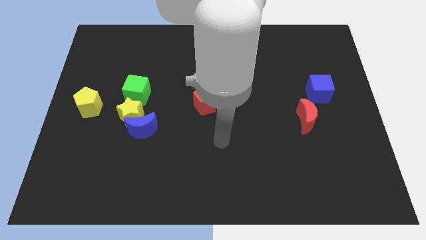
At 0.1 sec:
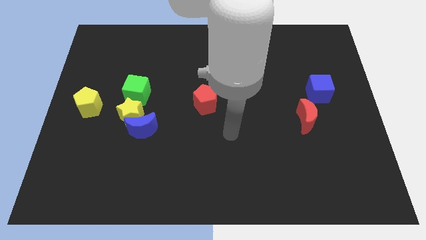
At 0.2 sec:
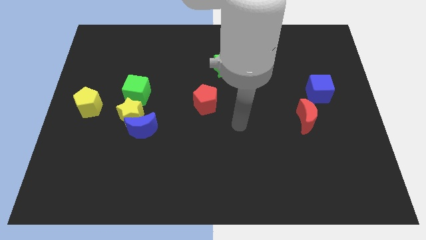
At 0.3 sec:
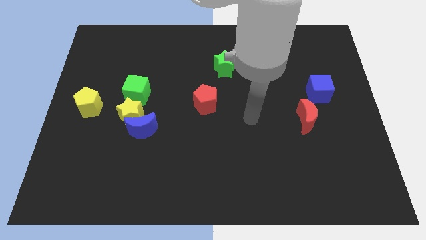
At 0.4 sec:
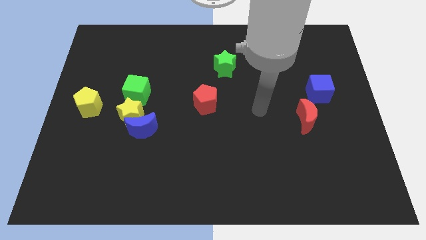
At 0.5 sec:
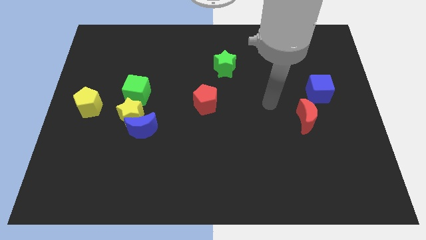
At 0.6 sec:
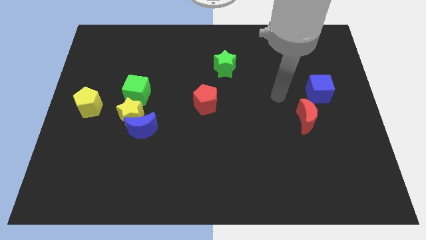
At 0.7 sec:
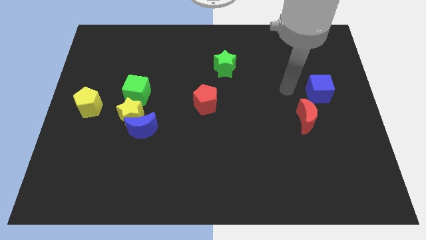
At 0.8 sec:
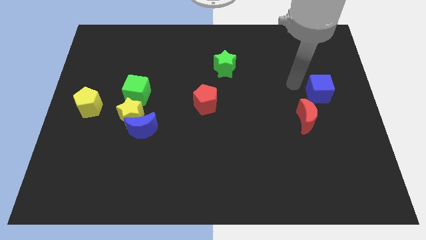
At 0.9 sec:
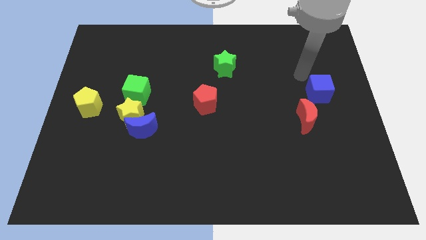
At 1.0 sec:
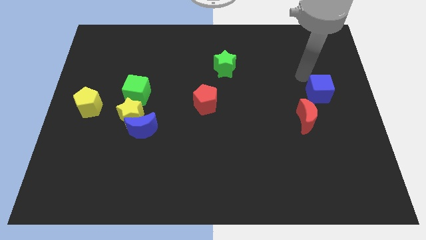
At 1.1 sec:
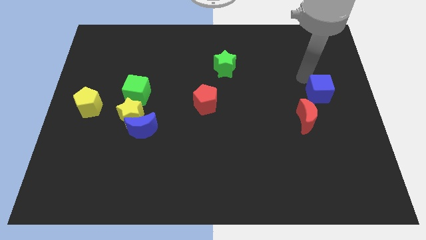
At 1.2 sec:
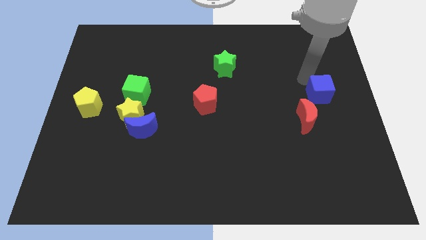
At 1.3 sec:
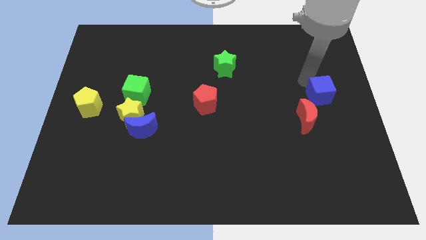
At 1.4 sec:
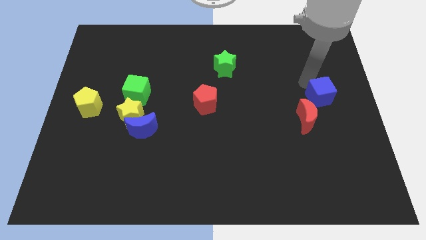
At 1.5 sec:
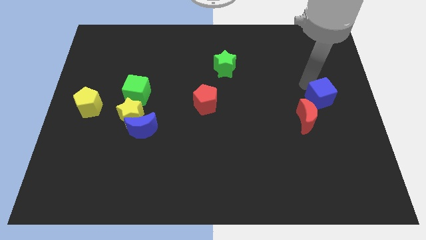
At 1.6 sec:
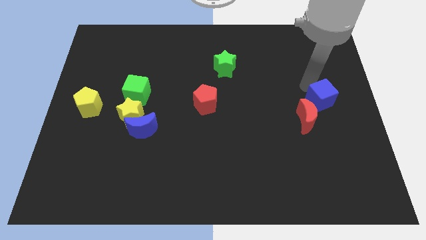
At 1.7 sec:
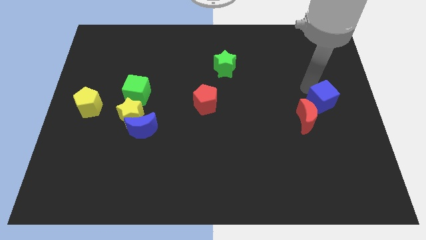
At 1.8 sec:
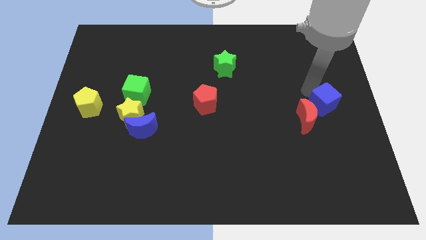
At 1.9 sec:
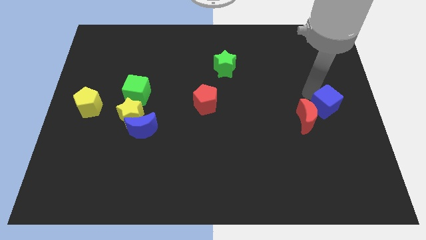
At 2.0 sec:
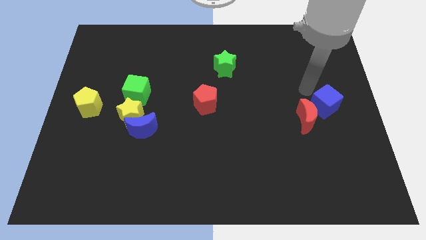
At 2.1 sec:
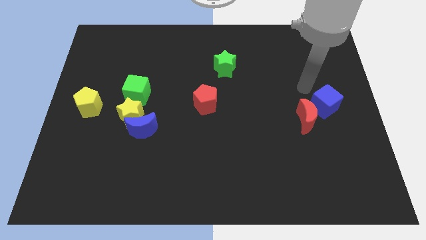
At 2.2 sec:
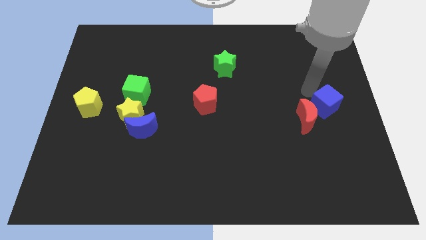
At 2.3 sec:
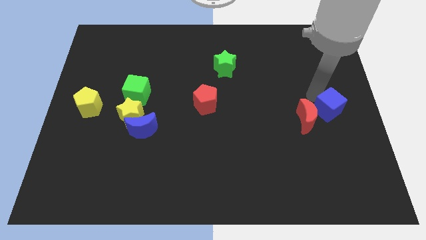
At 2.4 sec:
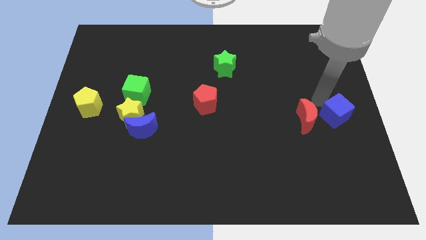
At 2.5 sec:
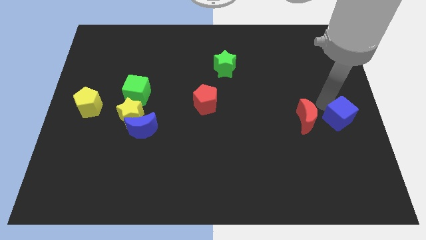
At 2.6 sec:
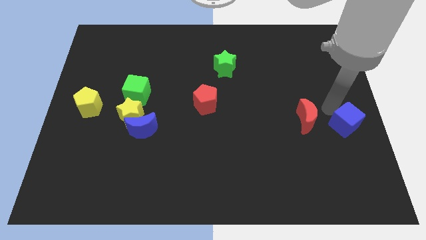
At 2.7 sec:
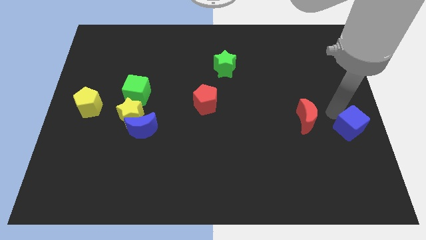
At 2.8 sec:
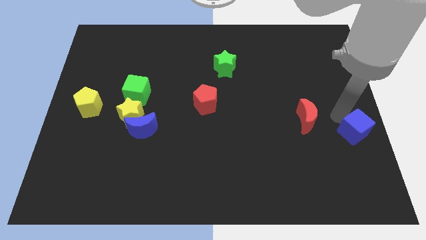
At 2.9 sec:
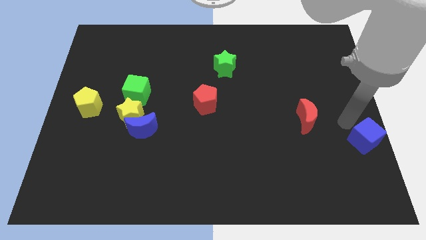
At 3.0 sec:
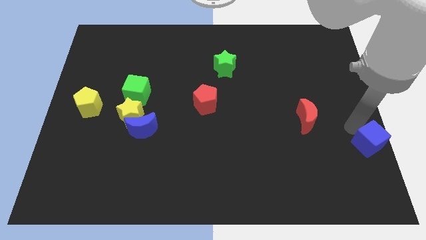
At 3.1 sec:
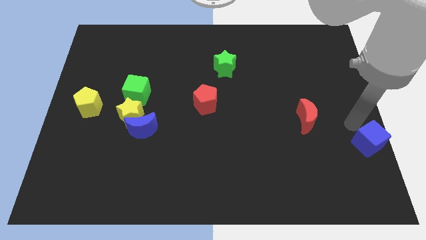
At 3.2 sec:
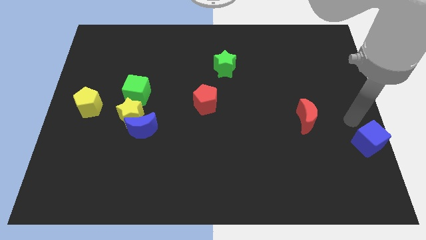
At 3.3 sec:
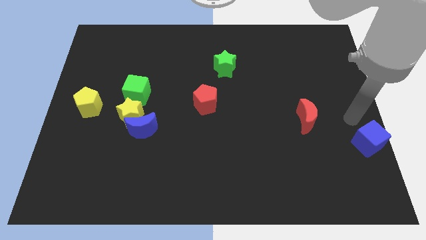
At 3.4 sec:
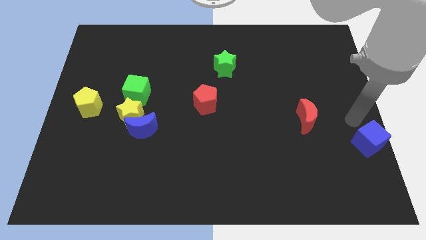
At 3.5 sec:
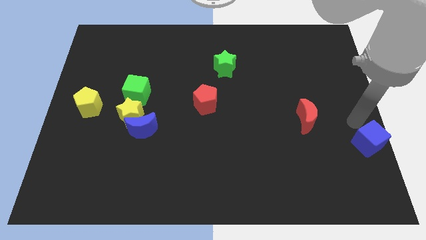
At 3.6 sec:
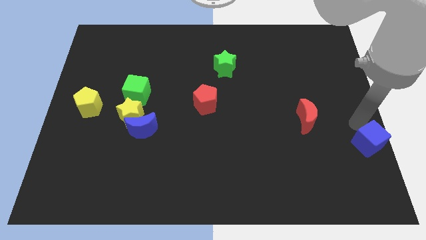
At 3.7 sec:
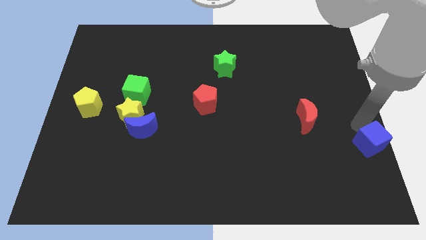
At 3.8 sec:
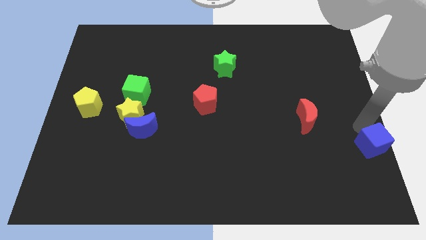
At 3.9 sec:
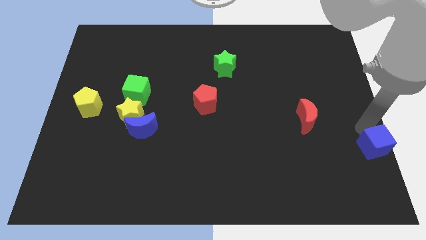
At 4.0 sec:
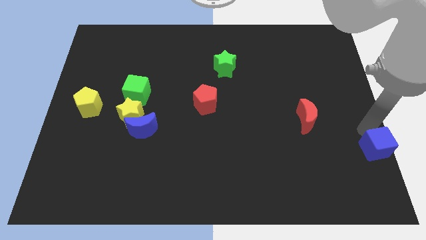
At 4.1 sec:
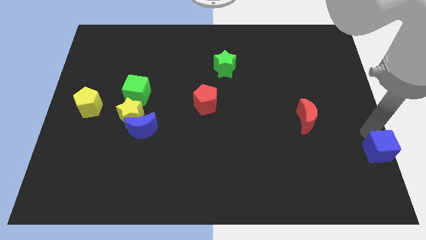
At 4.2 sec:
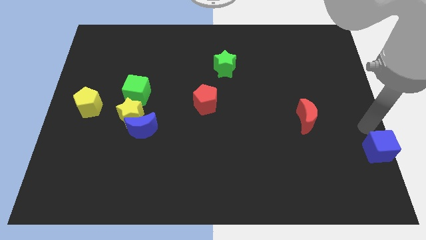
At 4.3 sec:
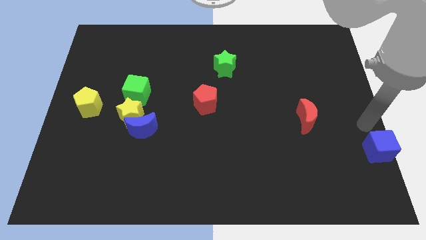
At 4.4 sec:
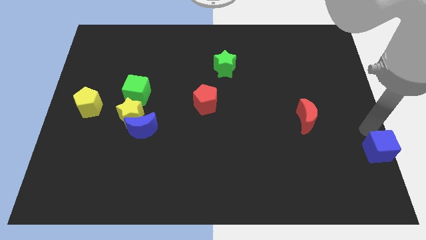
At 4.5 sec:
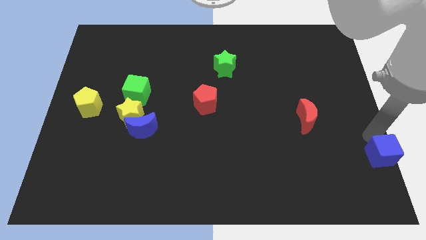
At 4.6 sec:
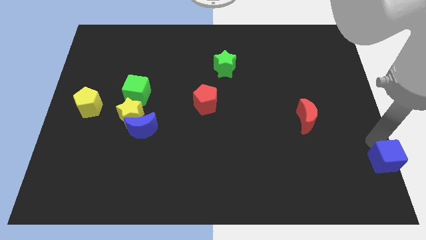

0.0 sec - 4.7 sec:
push the blue cube to the bottom right of the board

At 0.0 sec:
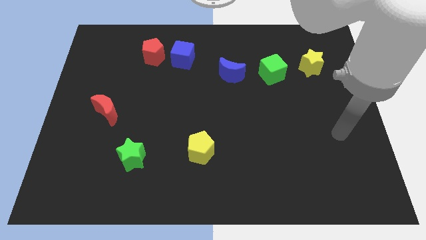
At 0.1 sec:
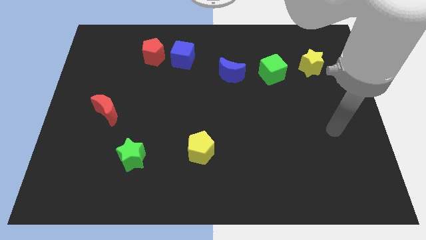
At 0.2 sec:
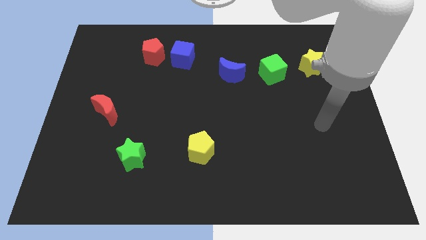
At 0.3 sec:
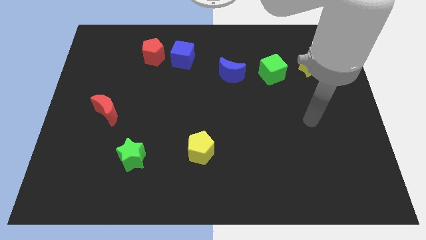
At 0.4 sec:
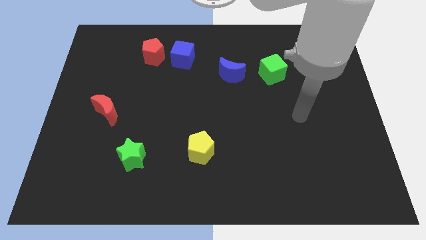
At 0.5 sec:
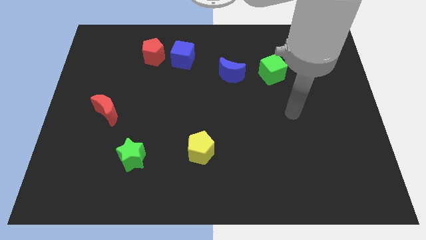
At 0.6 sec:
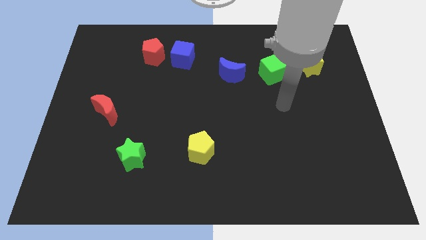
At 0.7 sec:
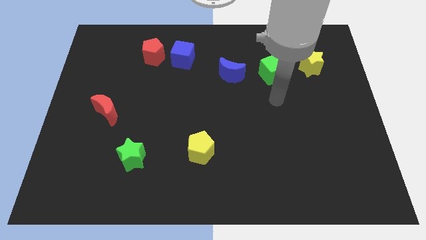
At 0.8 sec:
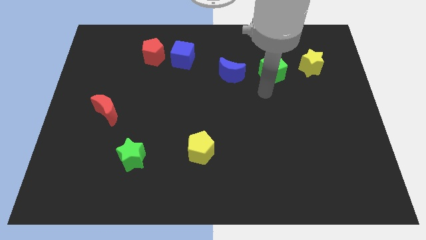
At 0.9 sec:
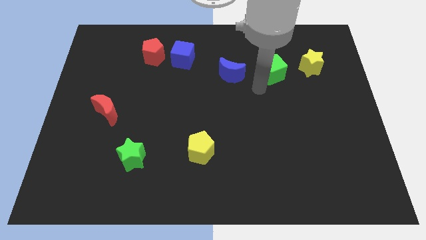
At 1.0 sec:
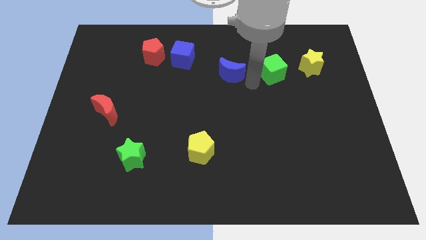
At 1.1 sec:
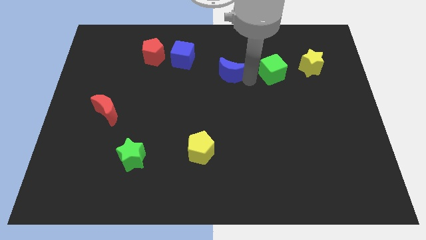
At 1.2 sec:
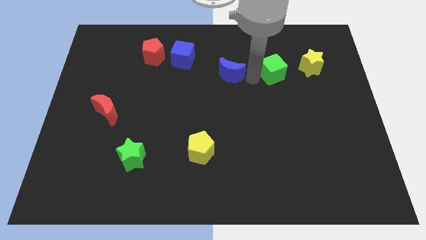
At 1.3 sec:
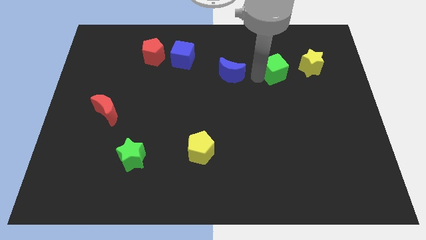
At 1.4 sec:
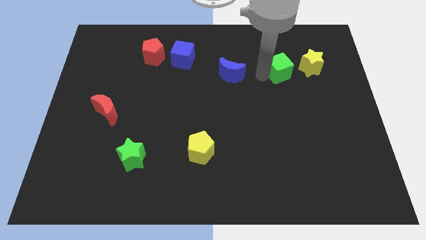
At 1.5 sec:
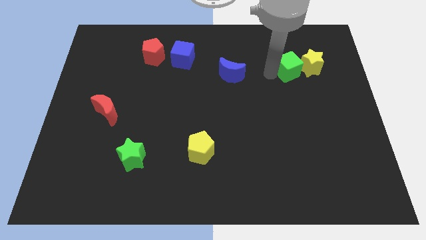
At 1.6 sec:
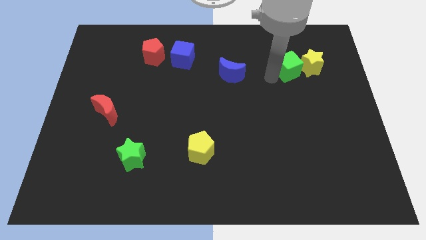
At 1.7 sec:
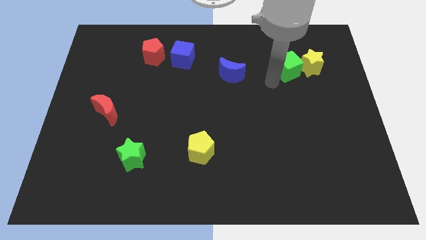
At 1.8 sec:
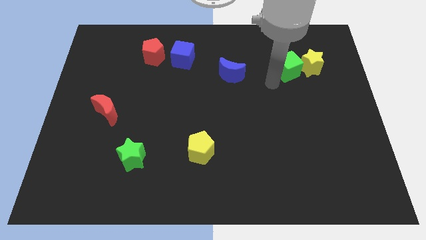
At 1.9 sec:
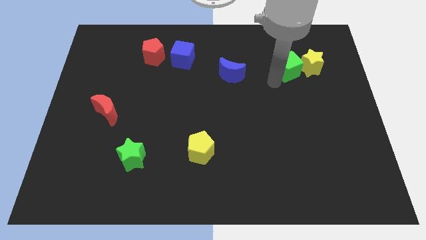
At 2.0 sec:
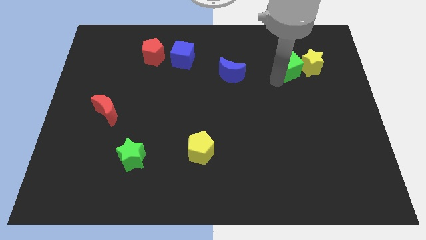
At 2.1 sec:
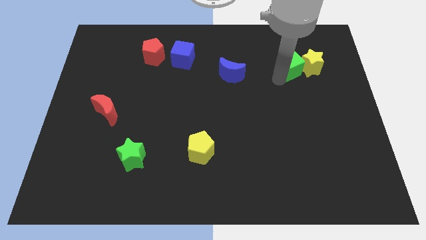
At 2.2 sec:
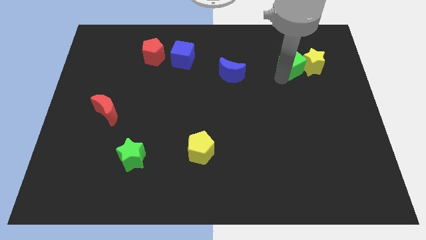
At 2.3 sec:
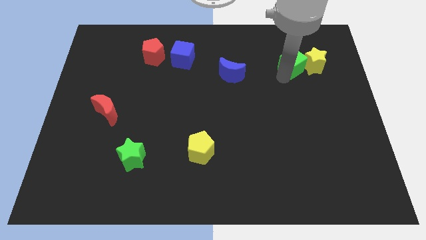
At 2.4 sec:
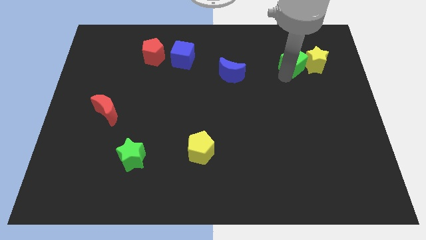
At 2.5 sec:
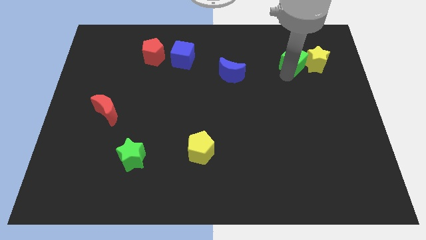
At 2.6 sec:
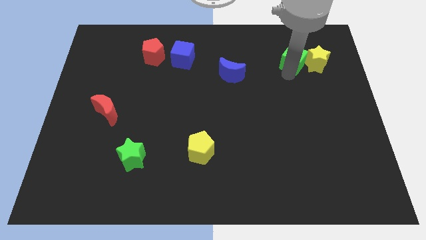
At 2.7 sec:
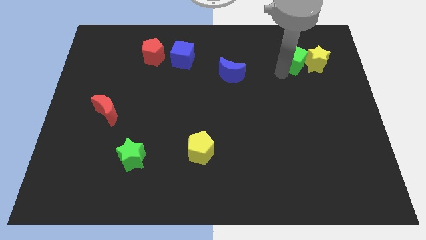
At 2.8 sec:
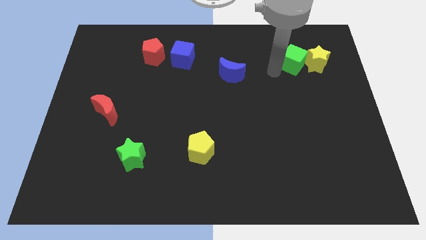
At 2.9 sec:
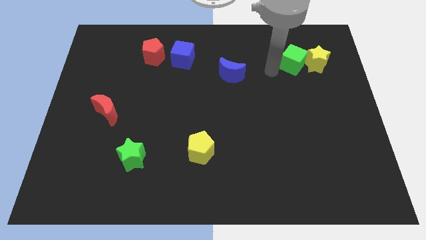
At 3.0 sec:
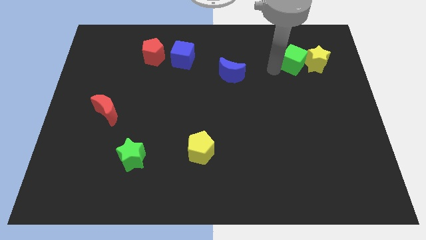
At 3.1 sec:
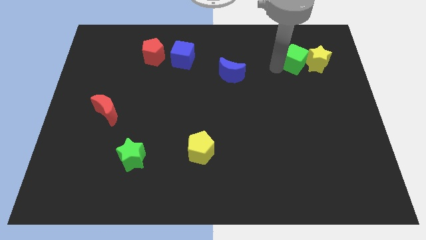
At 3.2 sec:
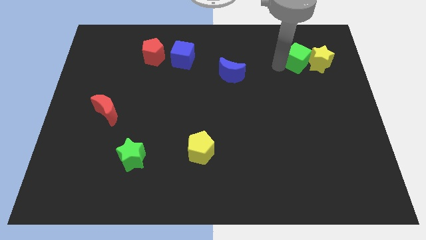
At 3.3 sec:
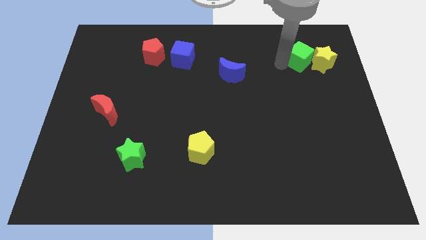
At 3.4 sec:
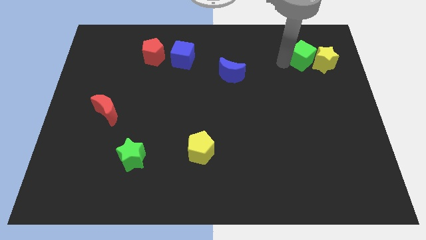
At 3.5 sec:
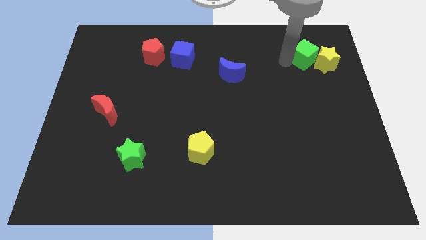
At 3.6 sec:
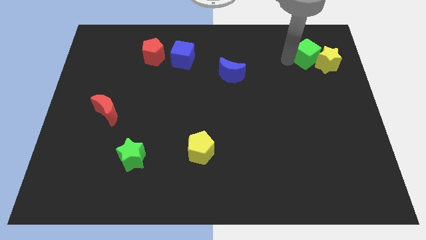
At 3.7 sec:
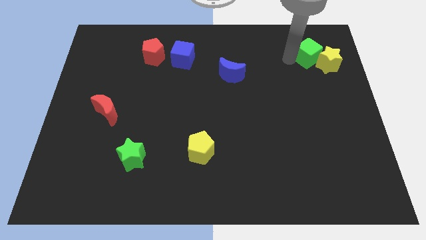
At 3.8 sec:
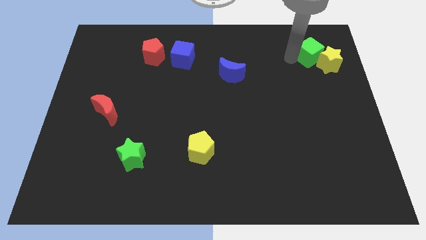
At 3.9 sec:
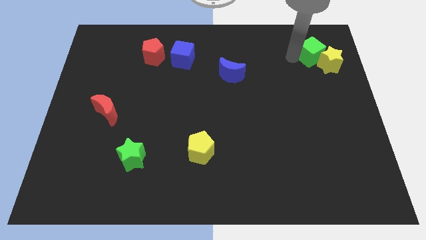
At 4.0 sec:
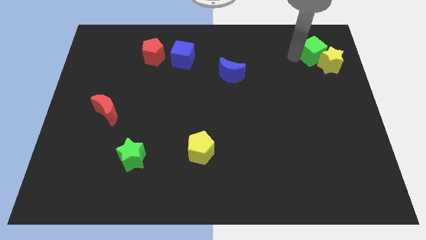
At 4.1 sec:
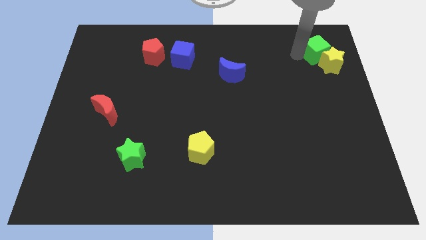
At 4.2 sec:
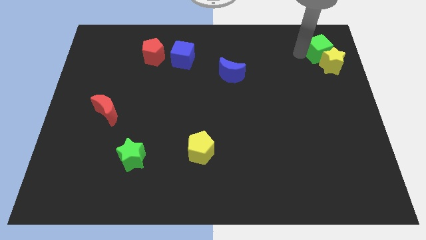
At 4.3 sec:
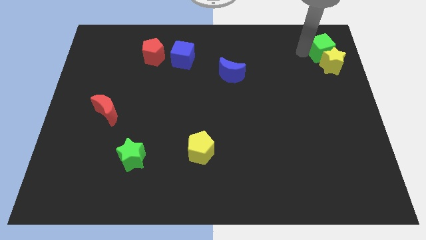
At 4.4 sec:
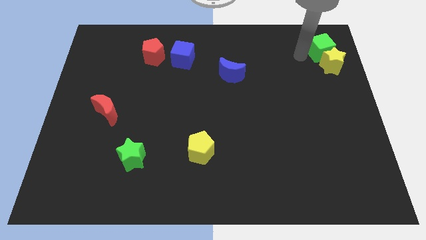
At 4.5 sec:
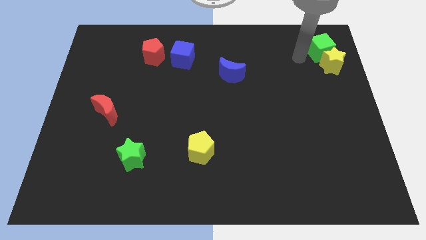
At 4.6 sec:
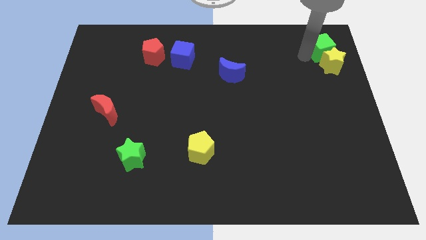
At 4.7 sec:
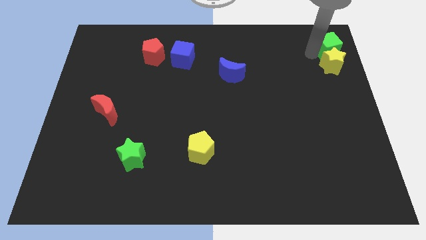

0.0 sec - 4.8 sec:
put the green cube to the top right of the board
